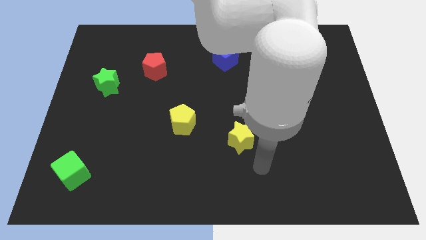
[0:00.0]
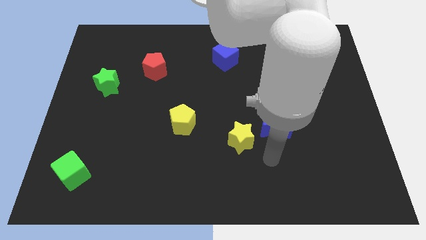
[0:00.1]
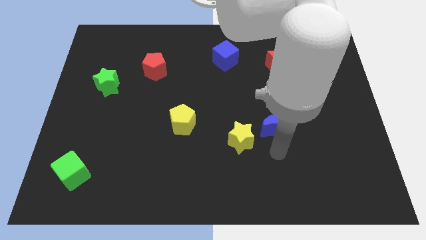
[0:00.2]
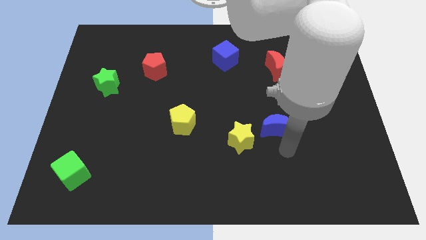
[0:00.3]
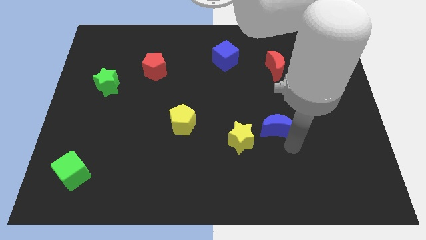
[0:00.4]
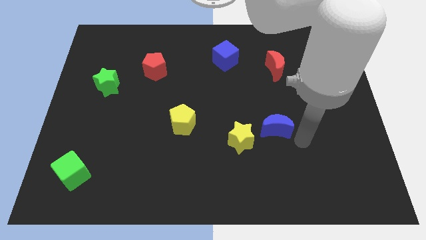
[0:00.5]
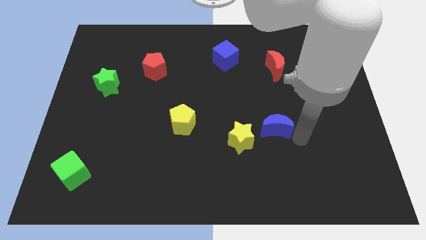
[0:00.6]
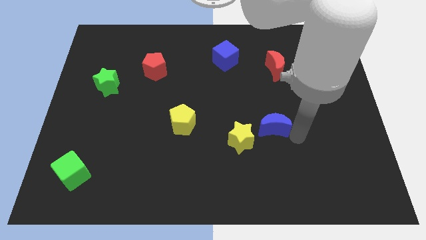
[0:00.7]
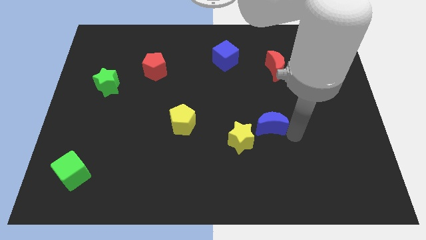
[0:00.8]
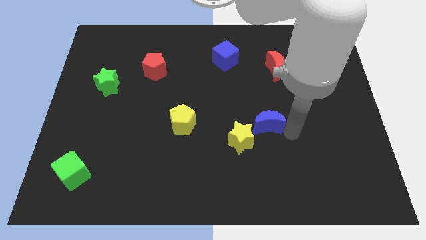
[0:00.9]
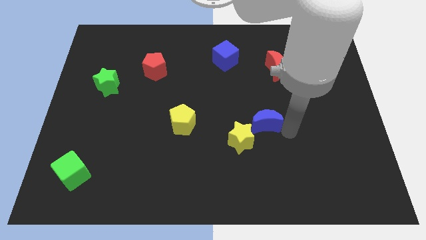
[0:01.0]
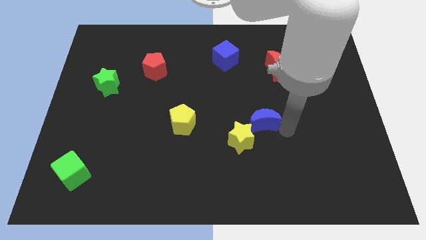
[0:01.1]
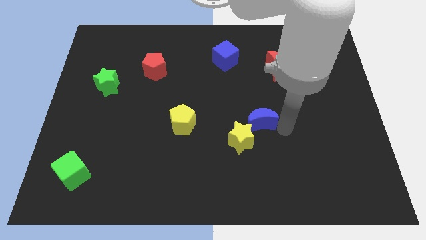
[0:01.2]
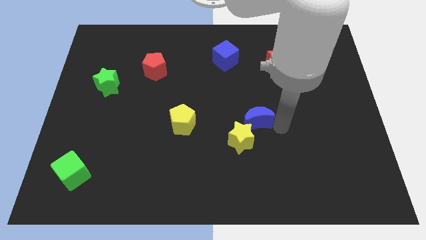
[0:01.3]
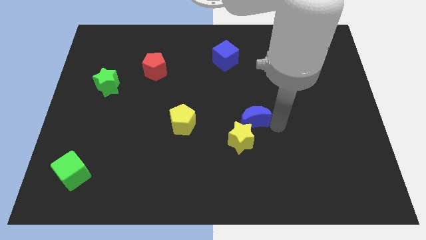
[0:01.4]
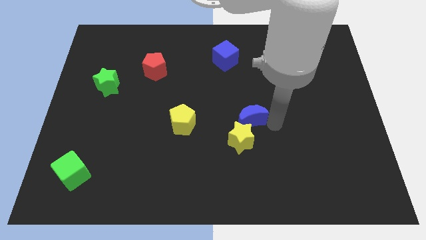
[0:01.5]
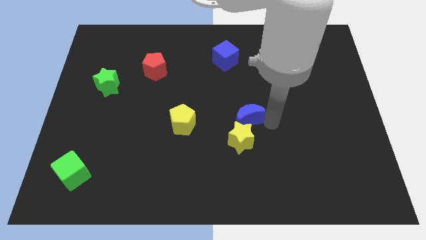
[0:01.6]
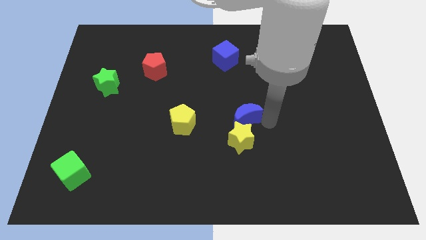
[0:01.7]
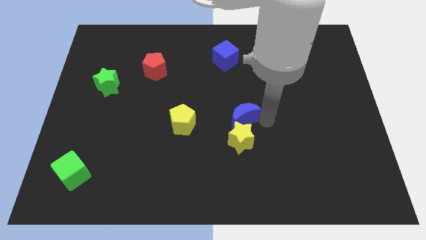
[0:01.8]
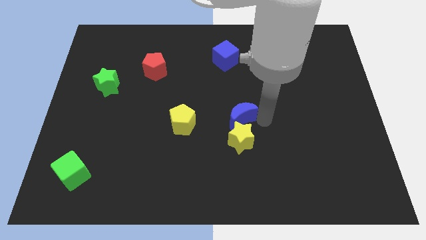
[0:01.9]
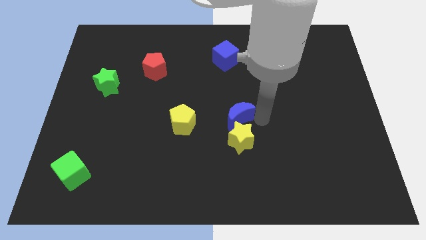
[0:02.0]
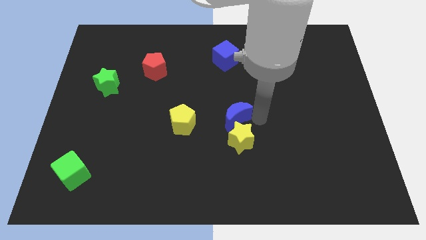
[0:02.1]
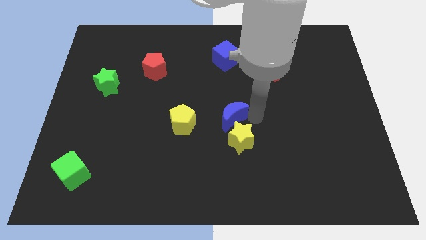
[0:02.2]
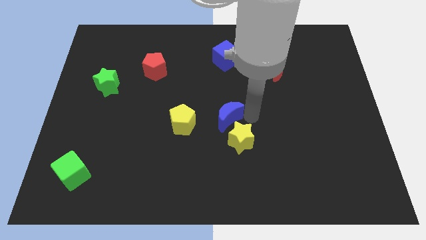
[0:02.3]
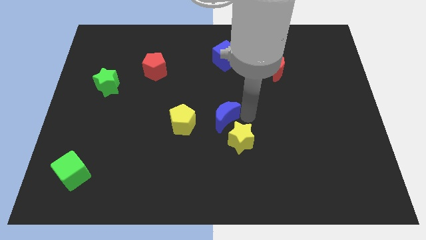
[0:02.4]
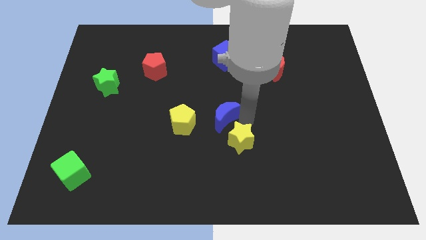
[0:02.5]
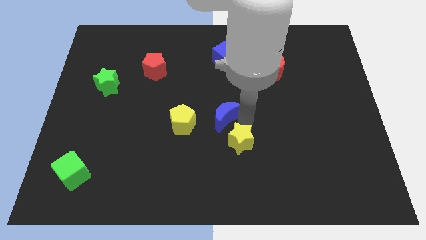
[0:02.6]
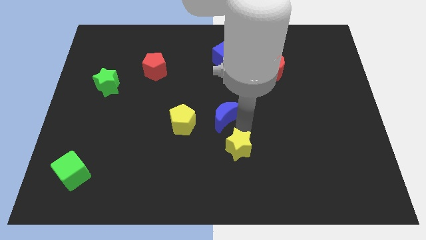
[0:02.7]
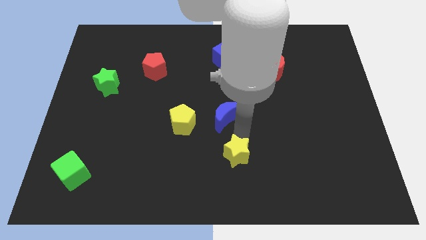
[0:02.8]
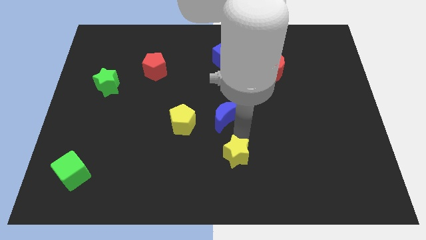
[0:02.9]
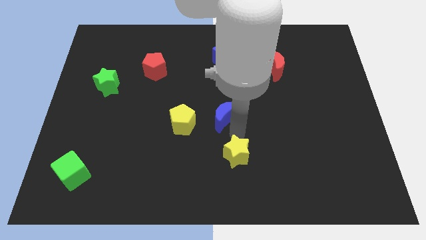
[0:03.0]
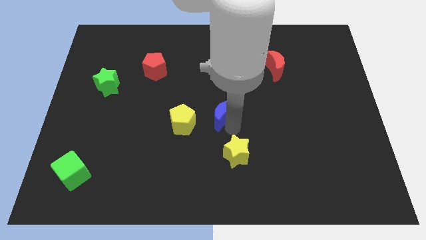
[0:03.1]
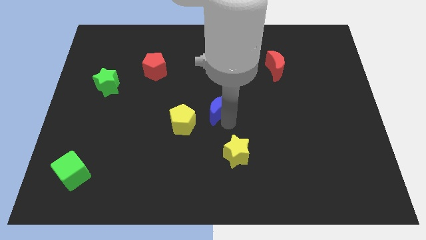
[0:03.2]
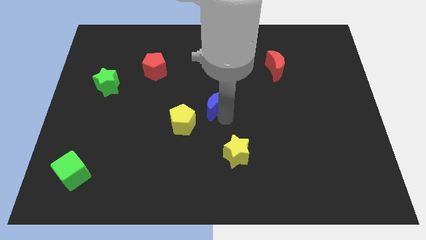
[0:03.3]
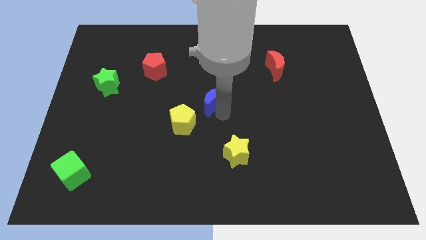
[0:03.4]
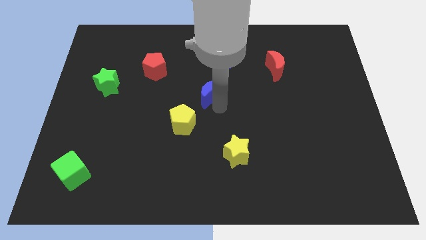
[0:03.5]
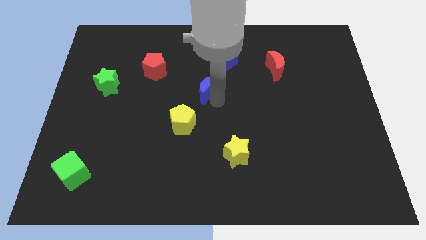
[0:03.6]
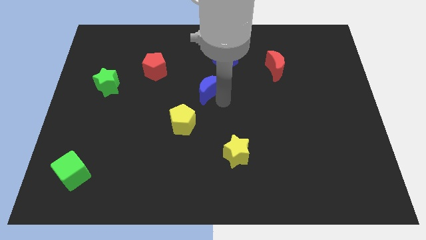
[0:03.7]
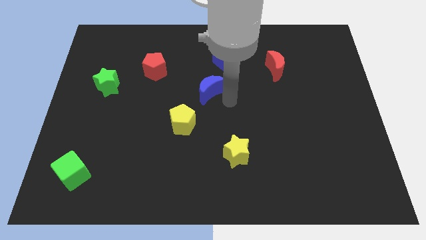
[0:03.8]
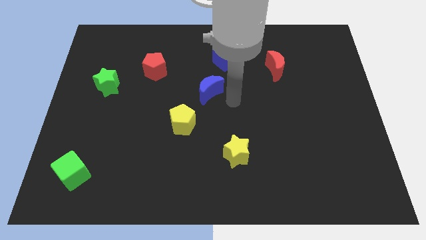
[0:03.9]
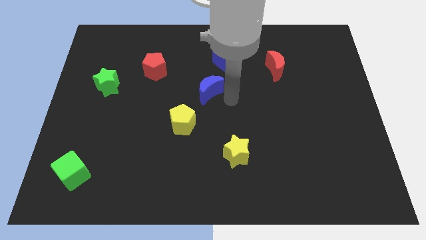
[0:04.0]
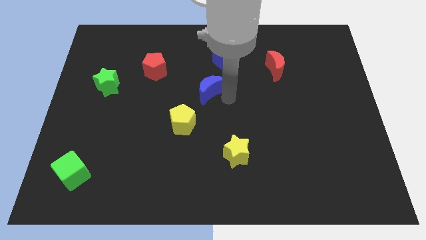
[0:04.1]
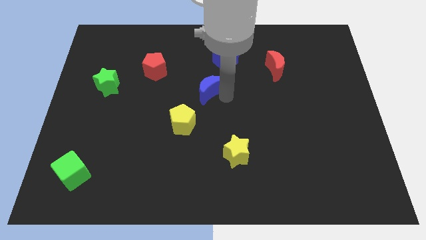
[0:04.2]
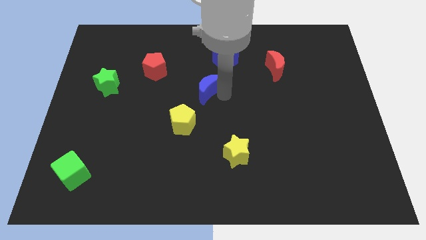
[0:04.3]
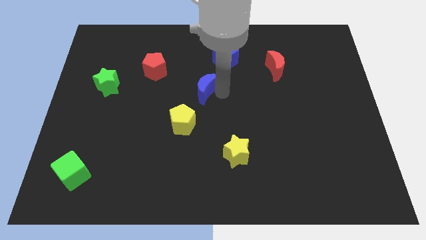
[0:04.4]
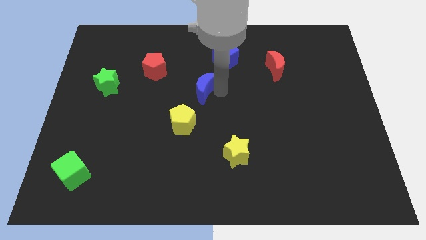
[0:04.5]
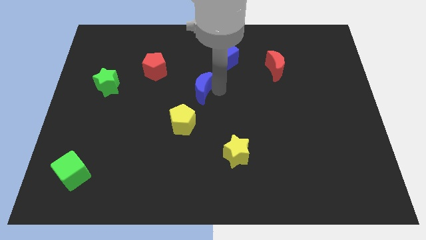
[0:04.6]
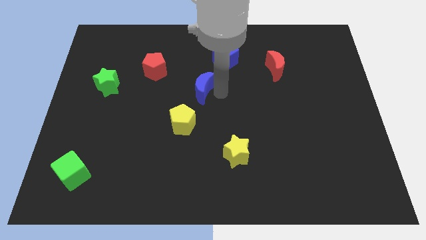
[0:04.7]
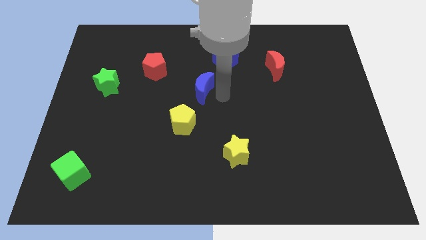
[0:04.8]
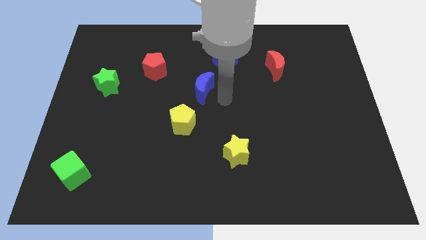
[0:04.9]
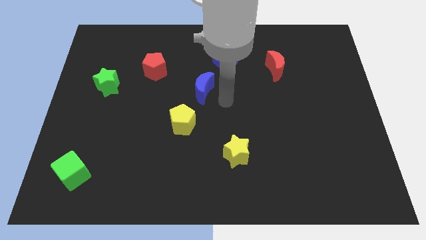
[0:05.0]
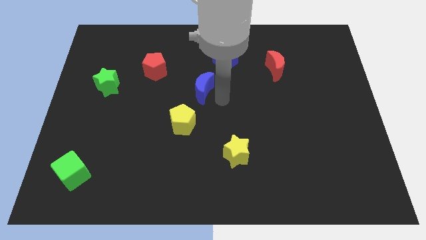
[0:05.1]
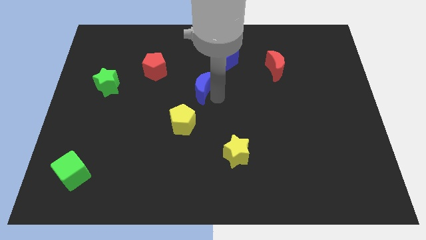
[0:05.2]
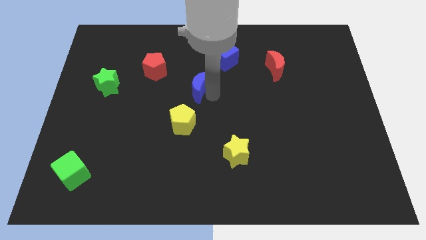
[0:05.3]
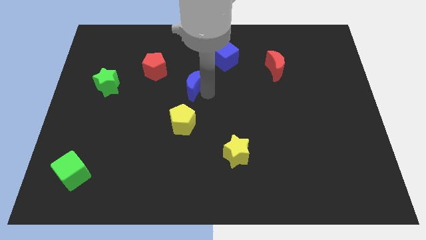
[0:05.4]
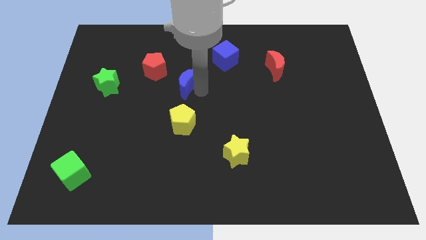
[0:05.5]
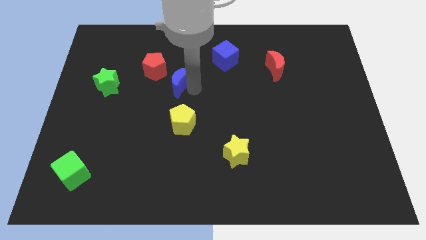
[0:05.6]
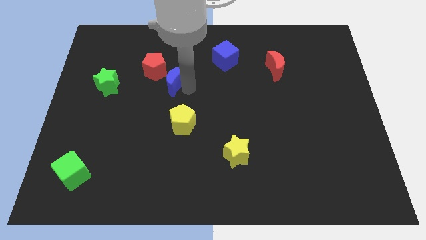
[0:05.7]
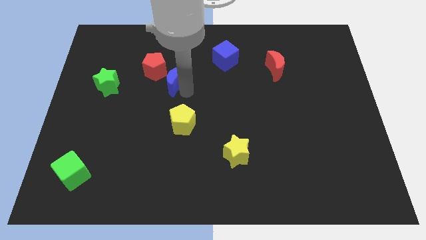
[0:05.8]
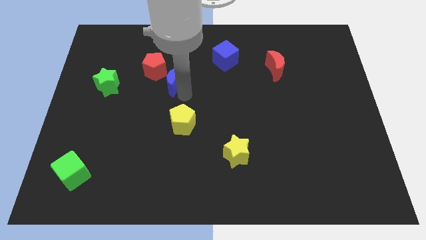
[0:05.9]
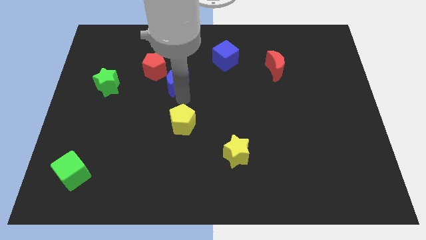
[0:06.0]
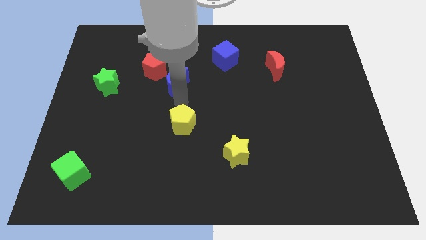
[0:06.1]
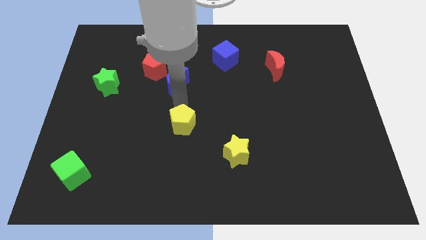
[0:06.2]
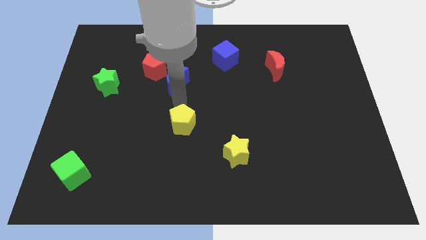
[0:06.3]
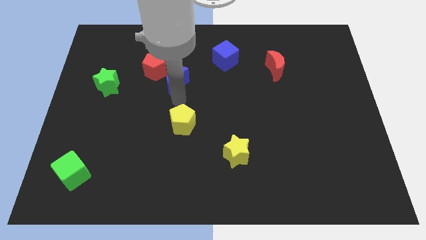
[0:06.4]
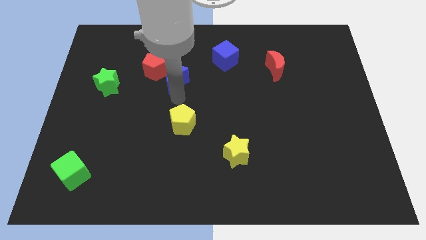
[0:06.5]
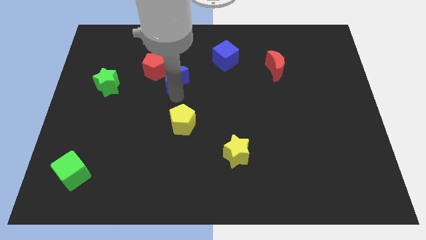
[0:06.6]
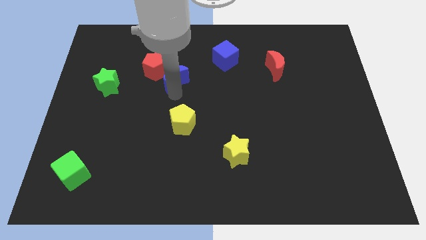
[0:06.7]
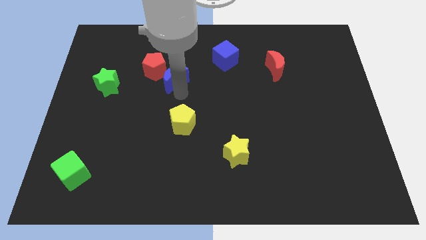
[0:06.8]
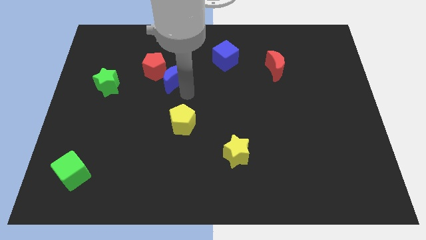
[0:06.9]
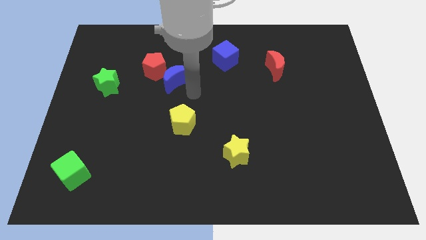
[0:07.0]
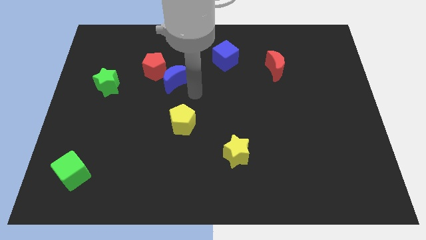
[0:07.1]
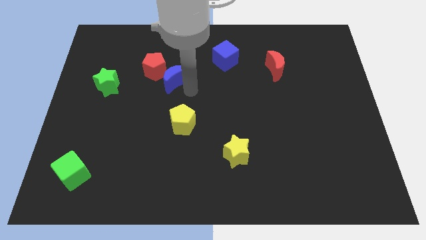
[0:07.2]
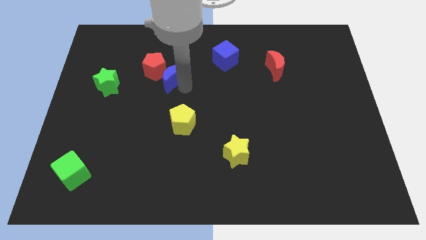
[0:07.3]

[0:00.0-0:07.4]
move the blue moon to the red pentagon
